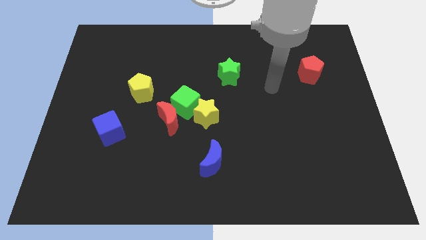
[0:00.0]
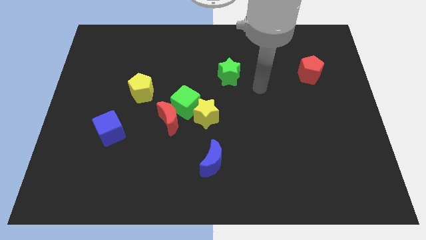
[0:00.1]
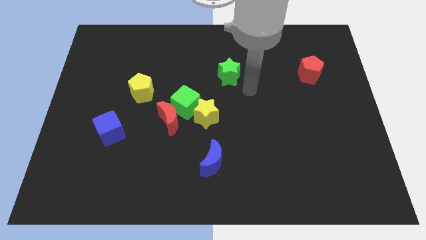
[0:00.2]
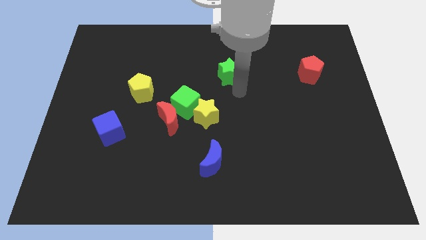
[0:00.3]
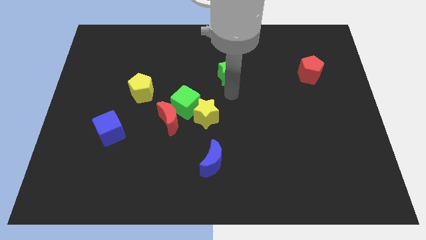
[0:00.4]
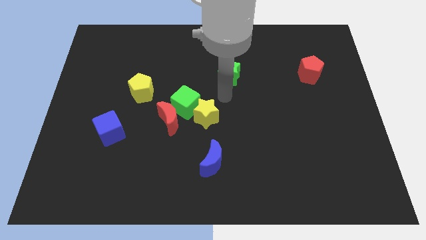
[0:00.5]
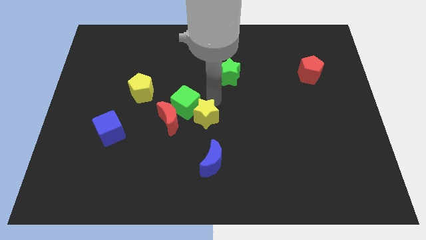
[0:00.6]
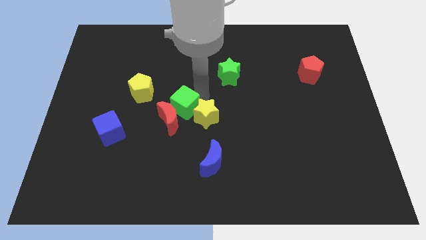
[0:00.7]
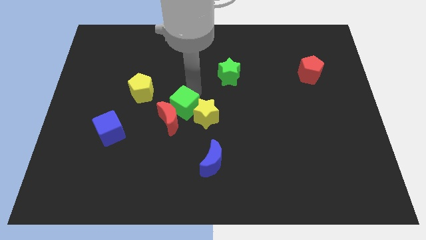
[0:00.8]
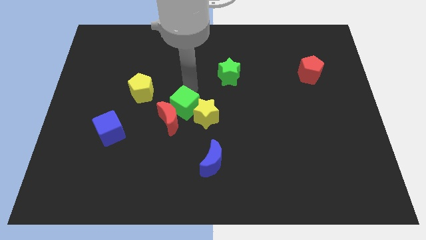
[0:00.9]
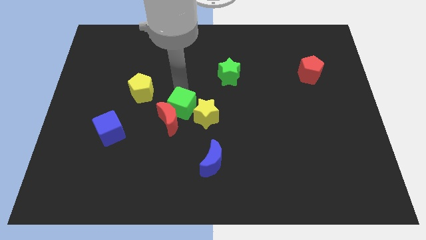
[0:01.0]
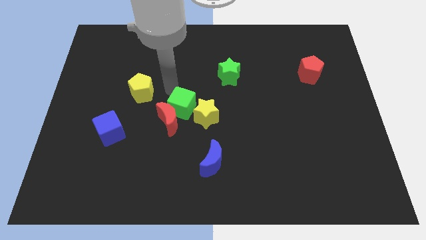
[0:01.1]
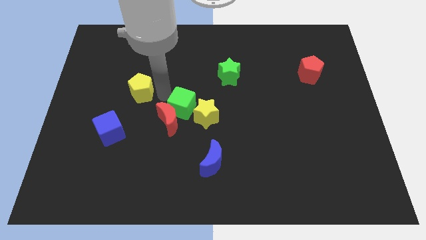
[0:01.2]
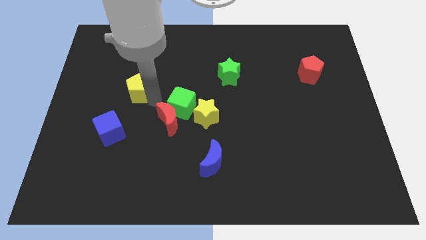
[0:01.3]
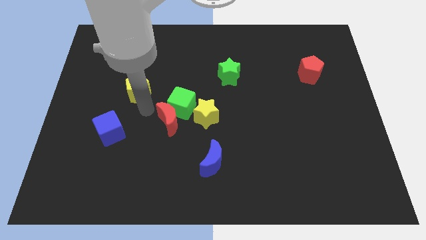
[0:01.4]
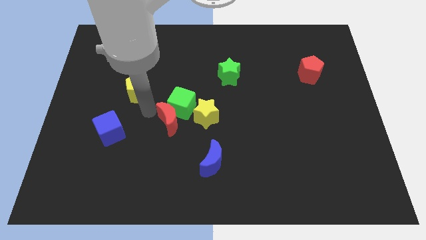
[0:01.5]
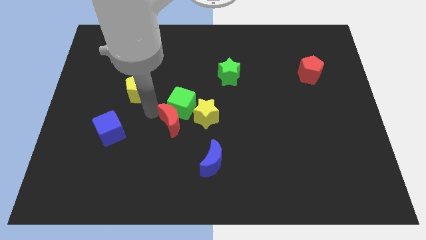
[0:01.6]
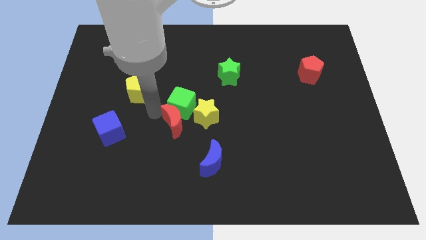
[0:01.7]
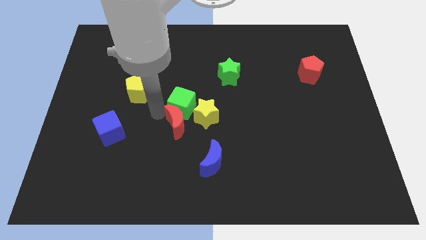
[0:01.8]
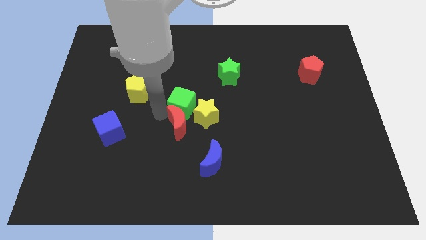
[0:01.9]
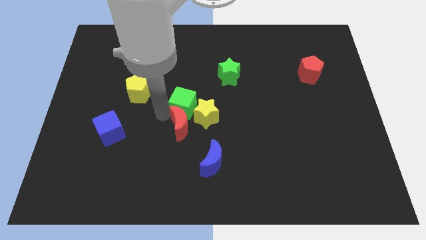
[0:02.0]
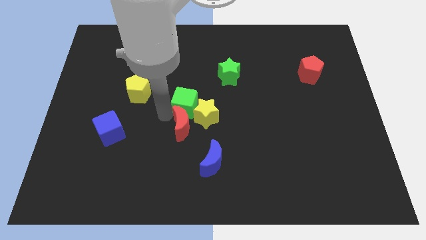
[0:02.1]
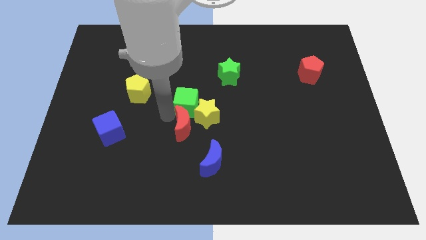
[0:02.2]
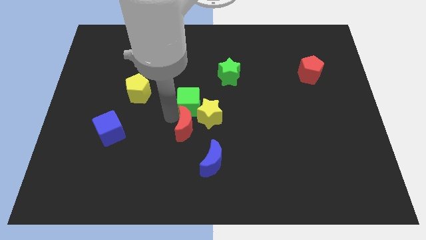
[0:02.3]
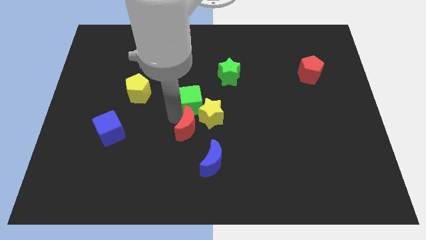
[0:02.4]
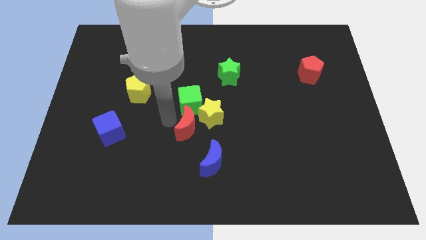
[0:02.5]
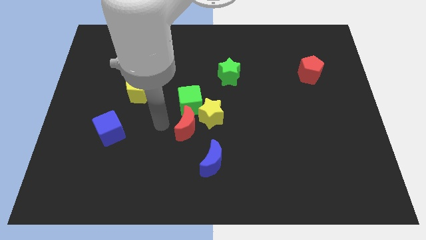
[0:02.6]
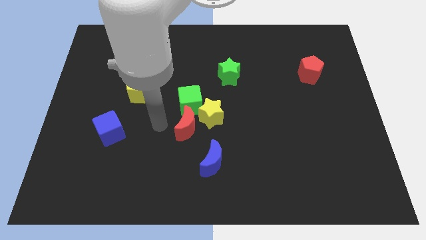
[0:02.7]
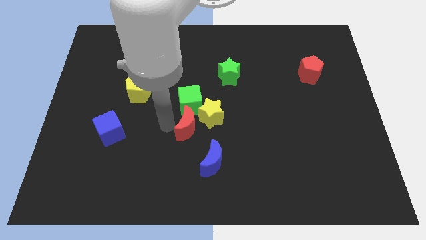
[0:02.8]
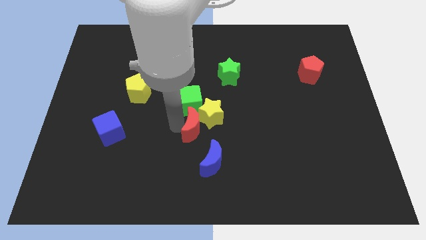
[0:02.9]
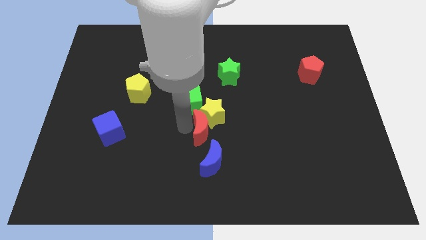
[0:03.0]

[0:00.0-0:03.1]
slightly push the red moon right

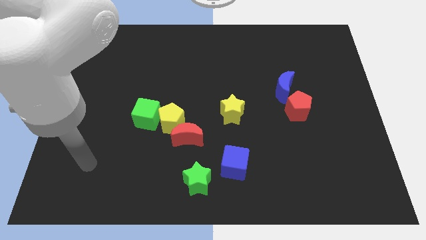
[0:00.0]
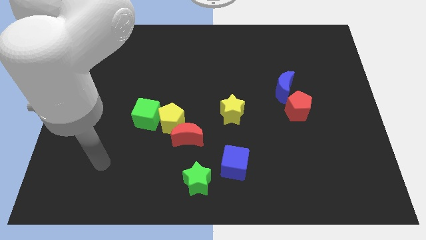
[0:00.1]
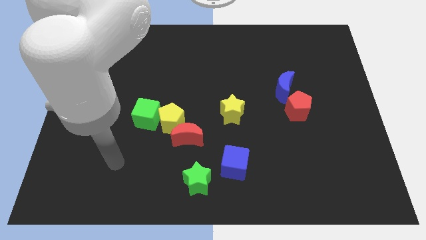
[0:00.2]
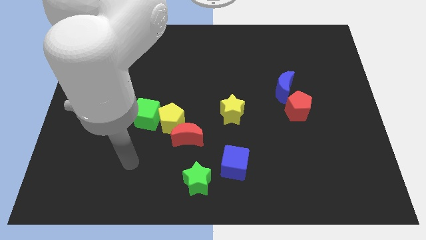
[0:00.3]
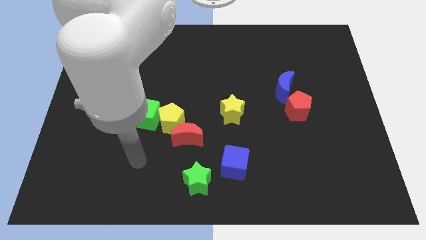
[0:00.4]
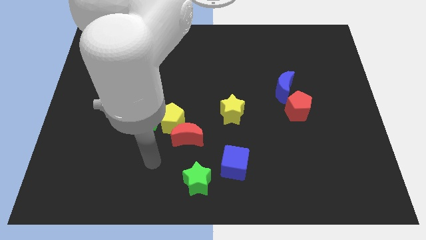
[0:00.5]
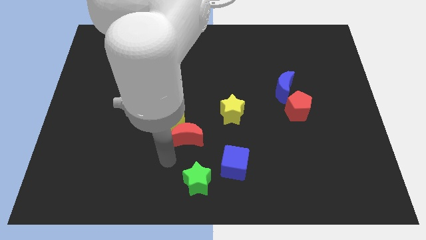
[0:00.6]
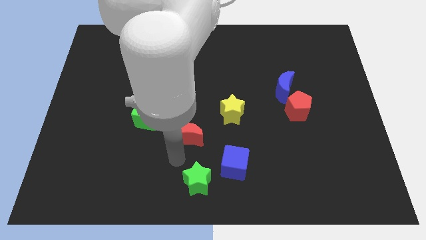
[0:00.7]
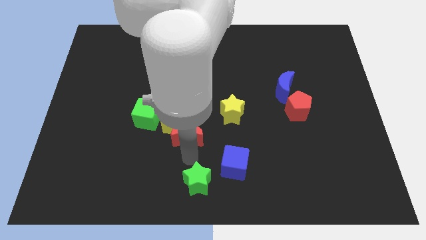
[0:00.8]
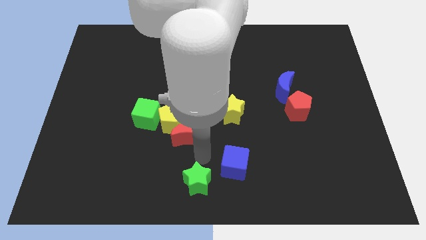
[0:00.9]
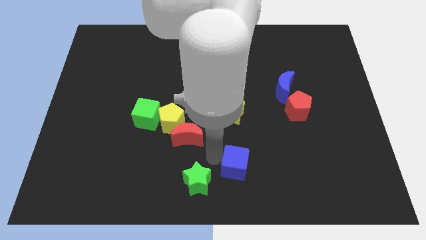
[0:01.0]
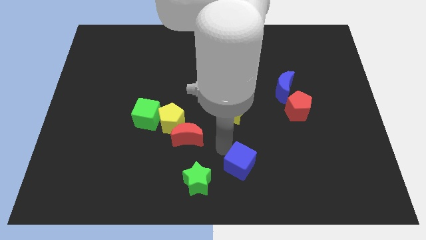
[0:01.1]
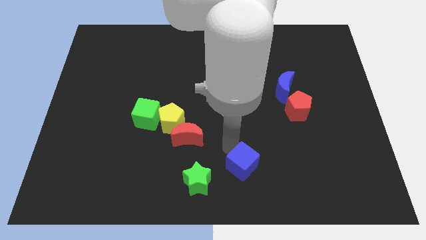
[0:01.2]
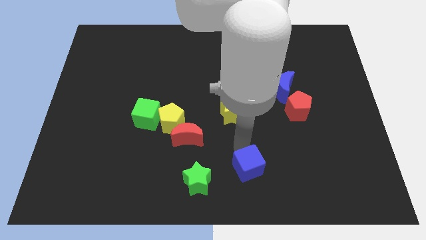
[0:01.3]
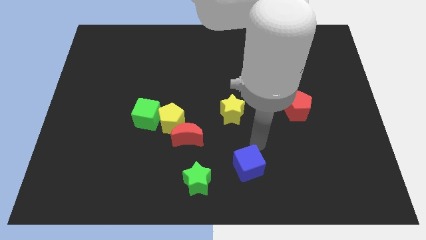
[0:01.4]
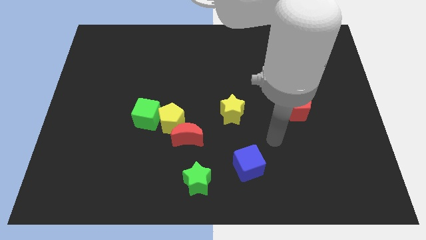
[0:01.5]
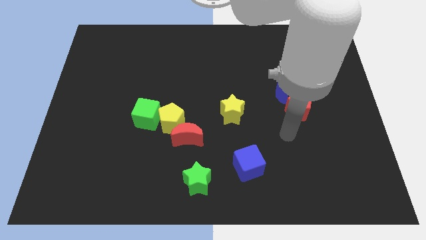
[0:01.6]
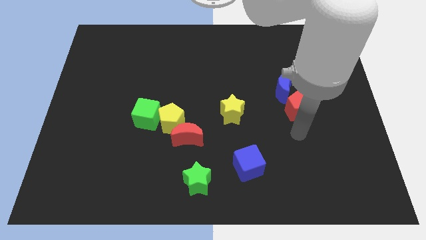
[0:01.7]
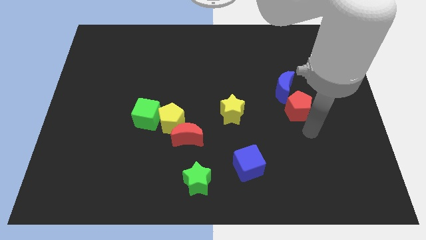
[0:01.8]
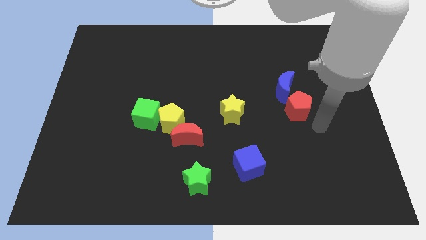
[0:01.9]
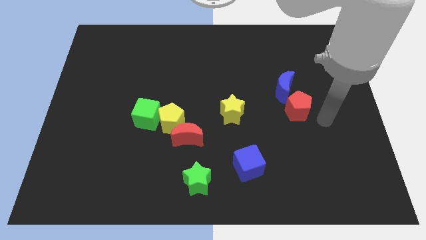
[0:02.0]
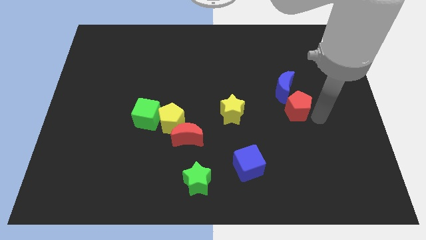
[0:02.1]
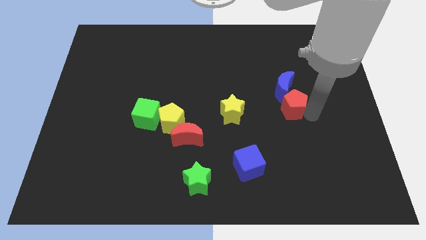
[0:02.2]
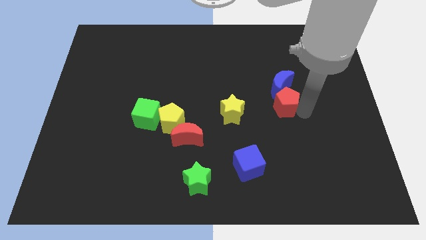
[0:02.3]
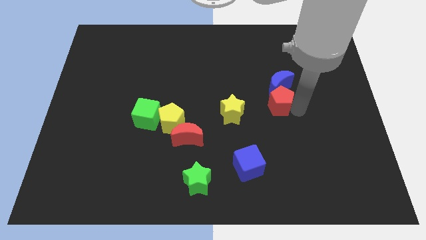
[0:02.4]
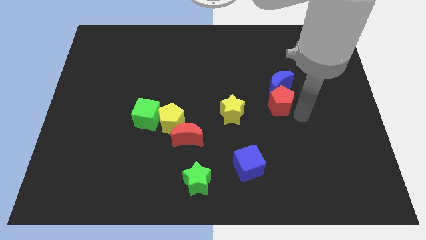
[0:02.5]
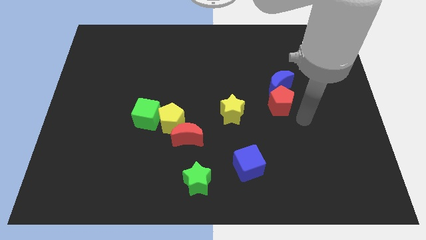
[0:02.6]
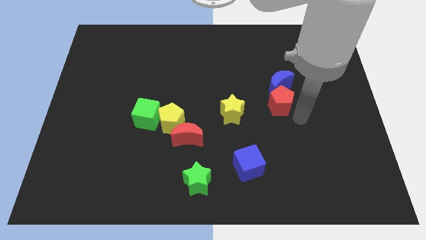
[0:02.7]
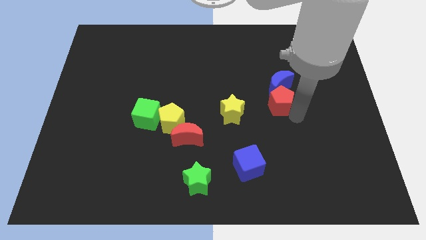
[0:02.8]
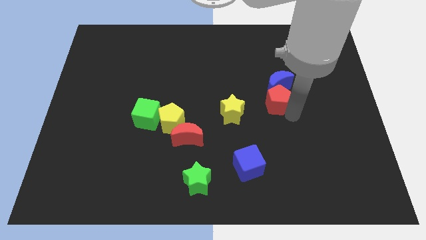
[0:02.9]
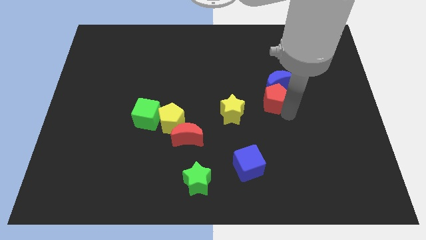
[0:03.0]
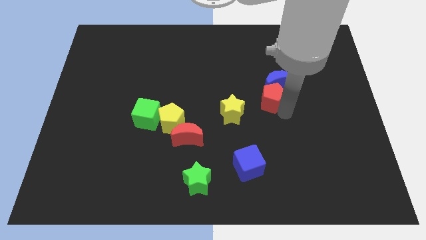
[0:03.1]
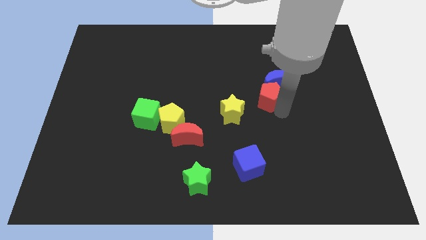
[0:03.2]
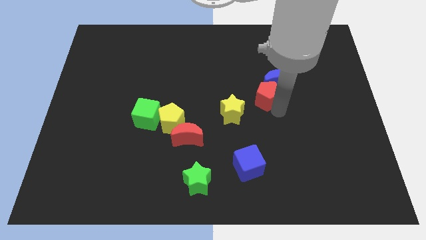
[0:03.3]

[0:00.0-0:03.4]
slide the red pentagon diagonally upwards and left a little

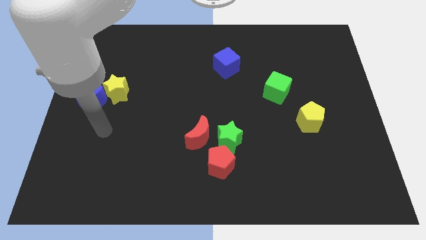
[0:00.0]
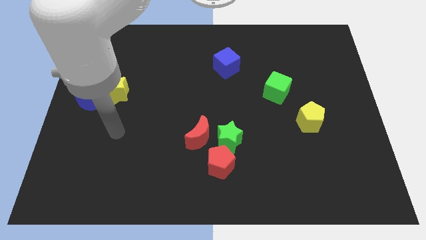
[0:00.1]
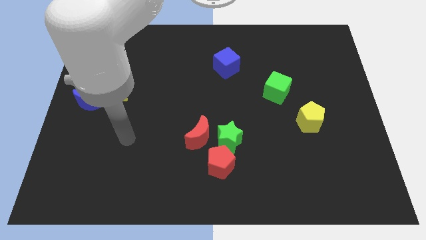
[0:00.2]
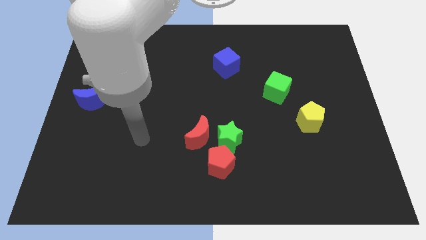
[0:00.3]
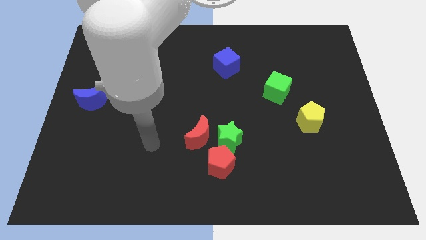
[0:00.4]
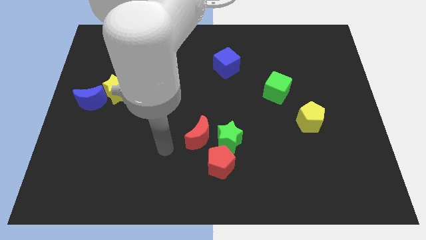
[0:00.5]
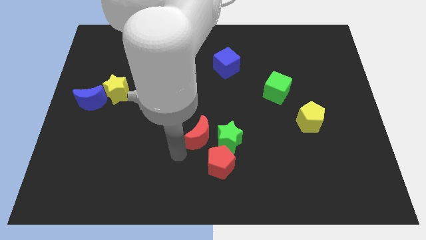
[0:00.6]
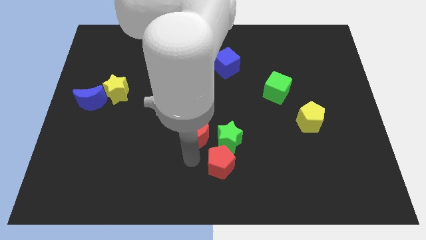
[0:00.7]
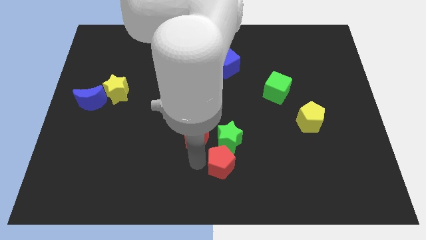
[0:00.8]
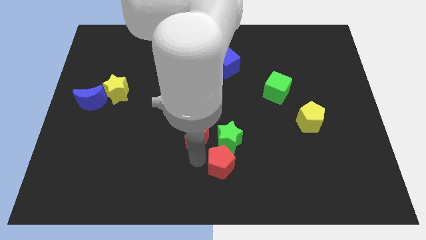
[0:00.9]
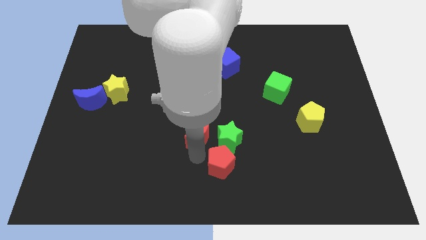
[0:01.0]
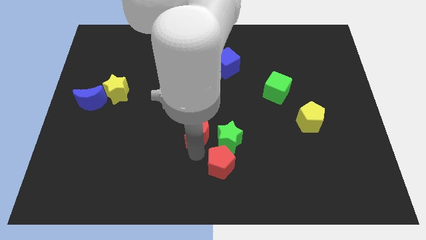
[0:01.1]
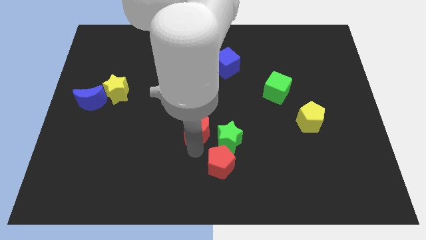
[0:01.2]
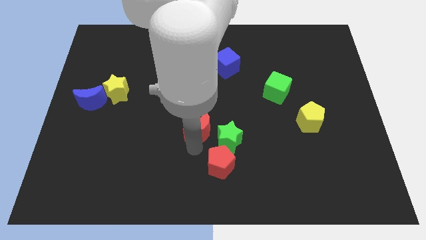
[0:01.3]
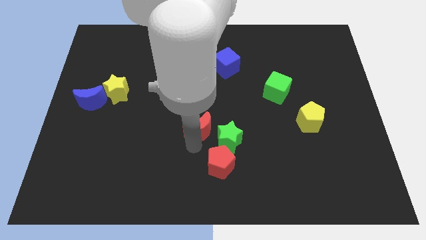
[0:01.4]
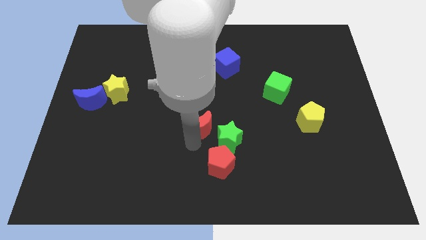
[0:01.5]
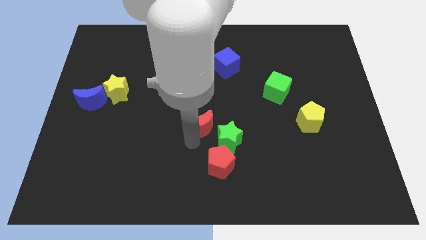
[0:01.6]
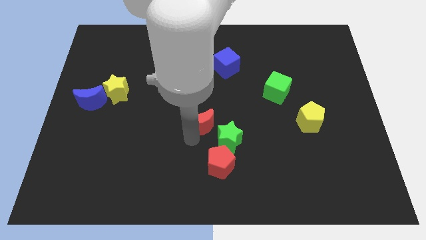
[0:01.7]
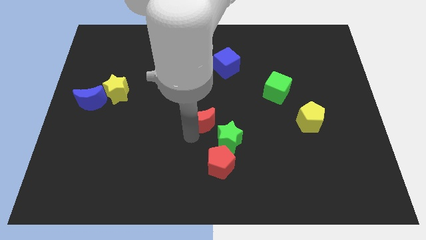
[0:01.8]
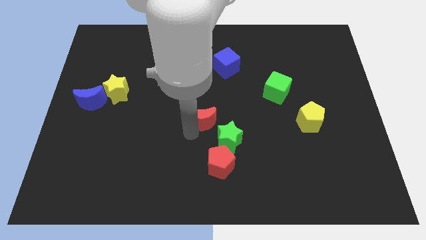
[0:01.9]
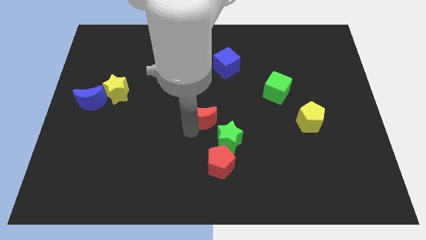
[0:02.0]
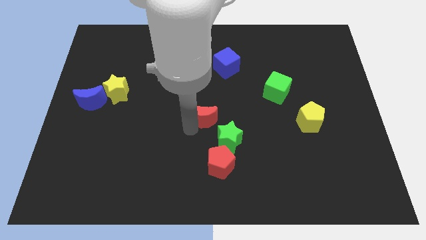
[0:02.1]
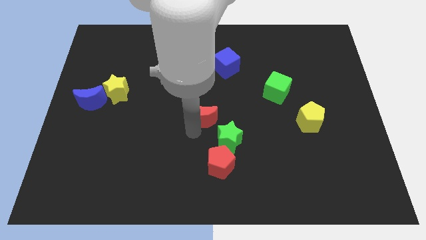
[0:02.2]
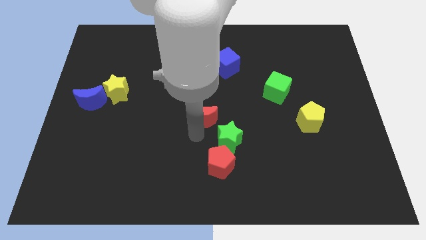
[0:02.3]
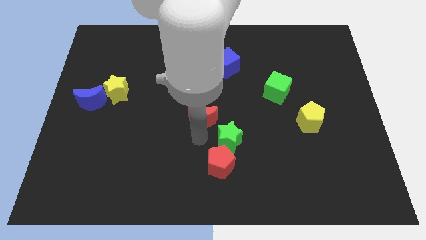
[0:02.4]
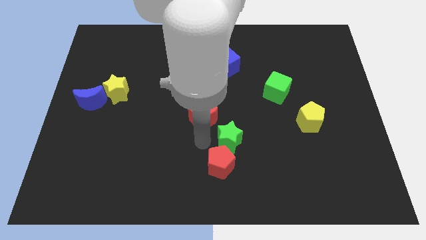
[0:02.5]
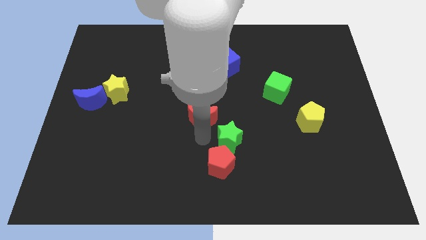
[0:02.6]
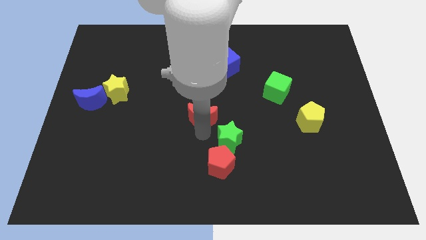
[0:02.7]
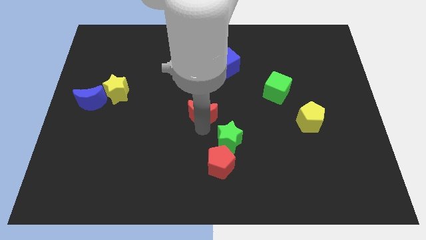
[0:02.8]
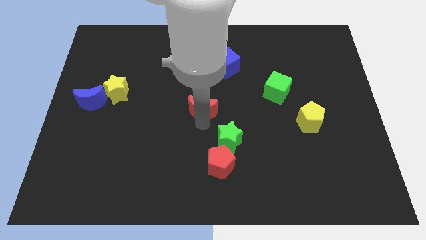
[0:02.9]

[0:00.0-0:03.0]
slightly push the red moon up
